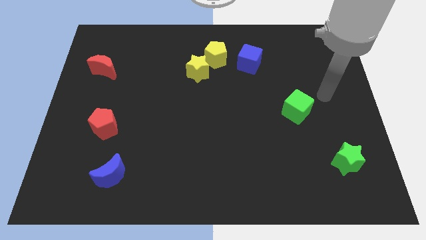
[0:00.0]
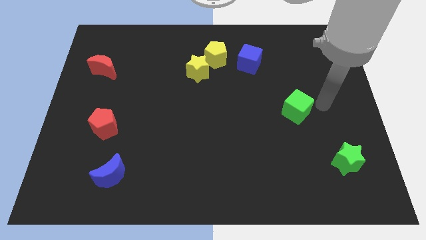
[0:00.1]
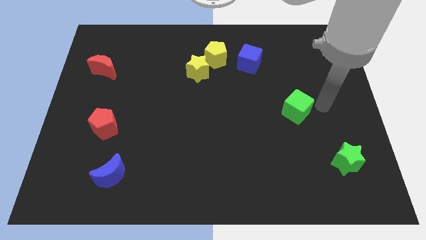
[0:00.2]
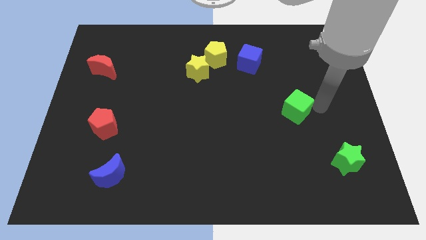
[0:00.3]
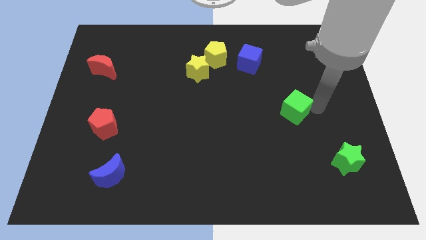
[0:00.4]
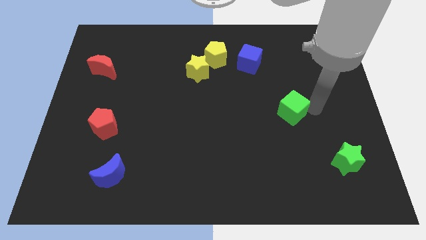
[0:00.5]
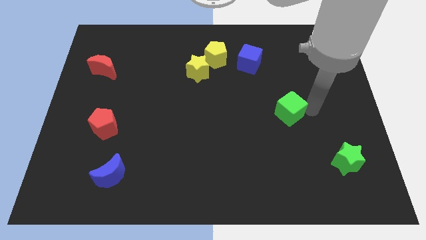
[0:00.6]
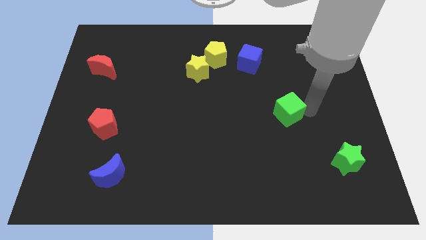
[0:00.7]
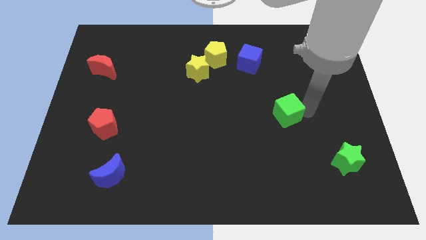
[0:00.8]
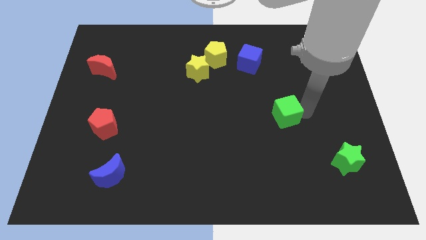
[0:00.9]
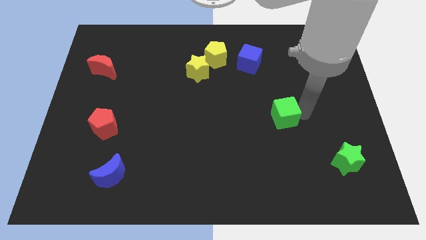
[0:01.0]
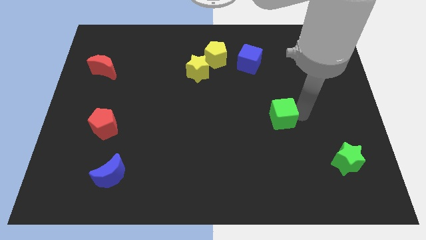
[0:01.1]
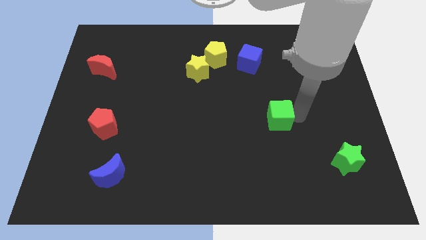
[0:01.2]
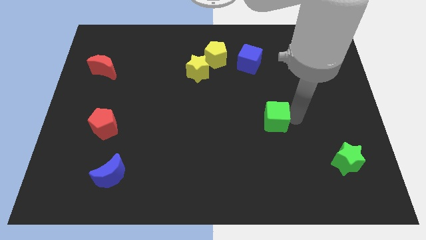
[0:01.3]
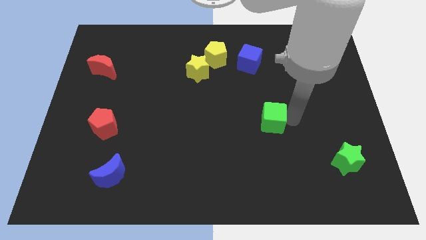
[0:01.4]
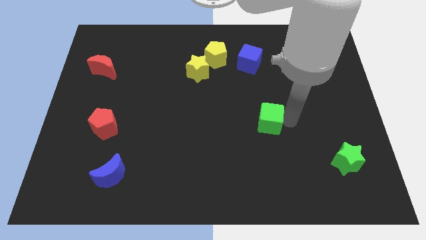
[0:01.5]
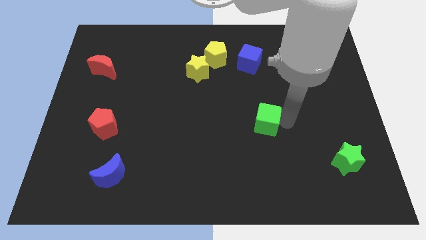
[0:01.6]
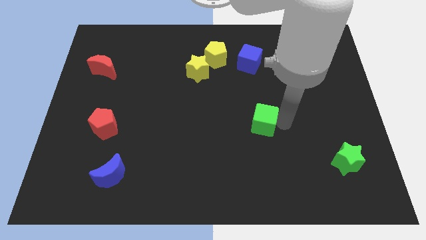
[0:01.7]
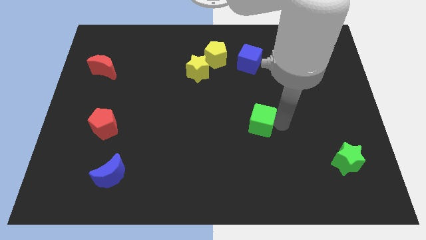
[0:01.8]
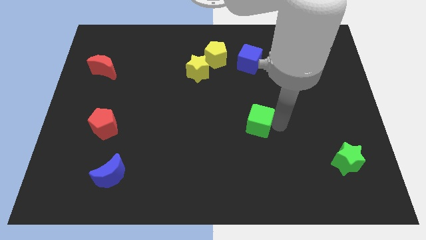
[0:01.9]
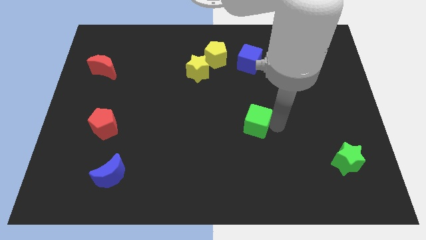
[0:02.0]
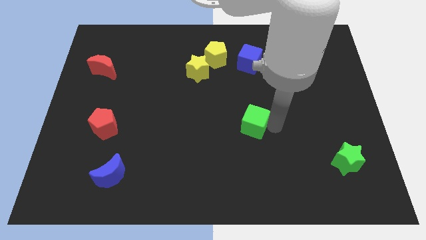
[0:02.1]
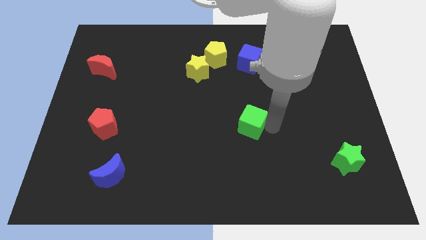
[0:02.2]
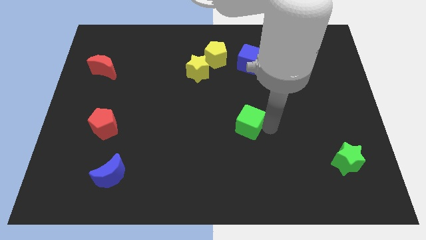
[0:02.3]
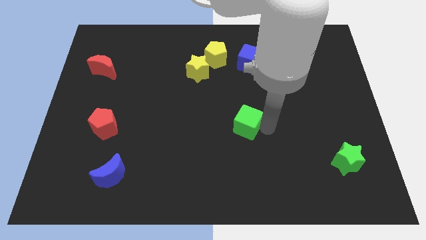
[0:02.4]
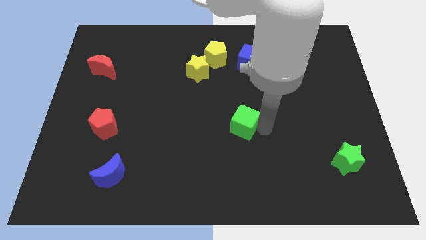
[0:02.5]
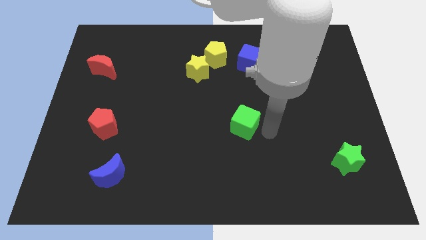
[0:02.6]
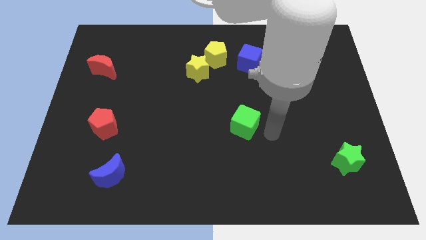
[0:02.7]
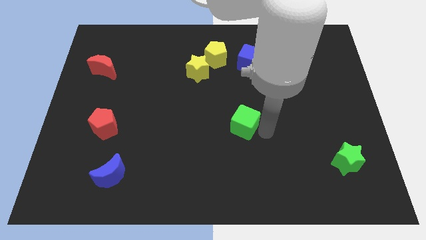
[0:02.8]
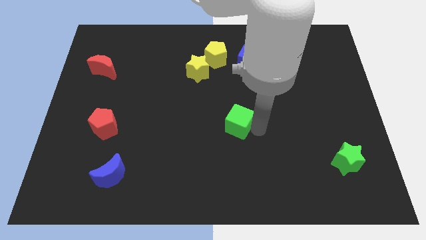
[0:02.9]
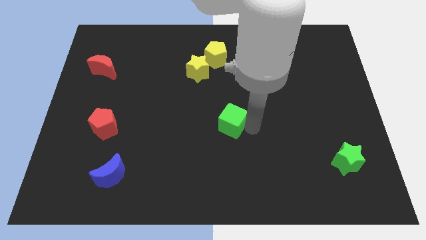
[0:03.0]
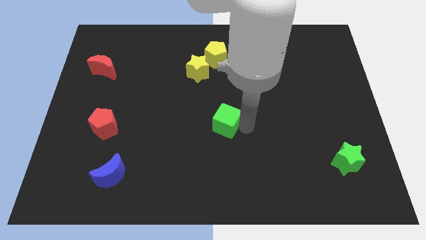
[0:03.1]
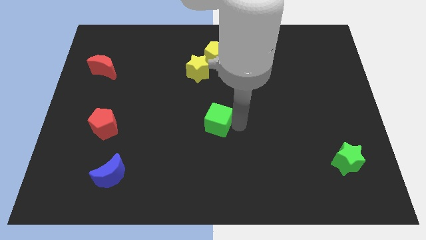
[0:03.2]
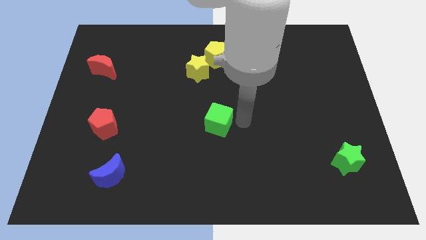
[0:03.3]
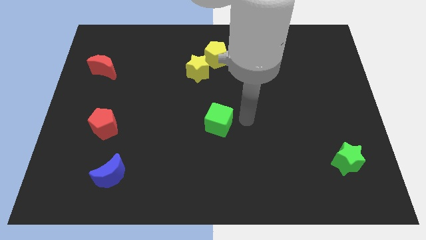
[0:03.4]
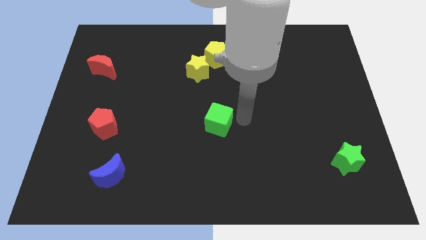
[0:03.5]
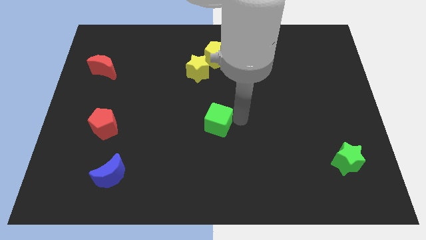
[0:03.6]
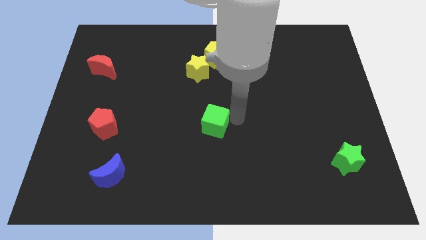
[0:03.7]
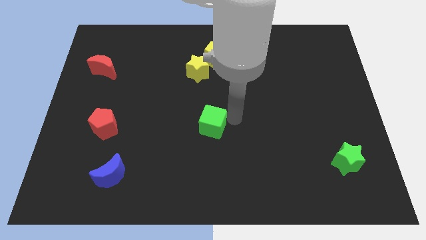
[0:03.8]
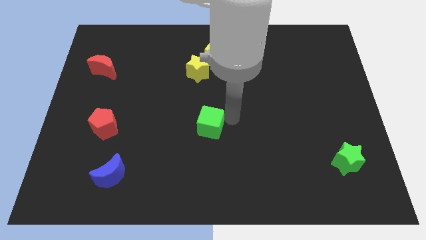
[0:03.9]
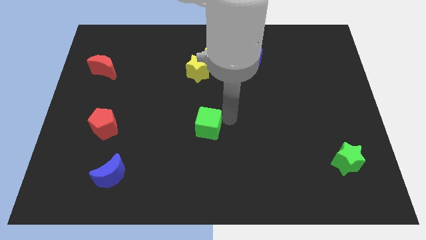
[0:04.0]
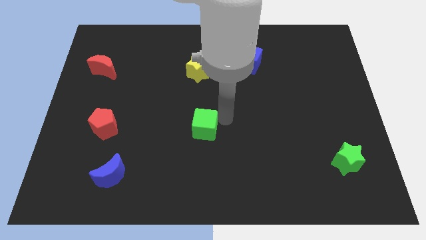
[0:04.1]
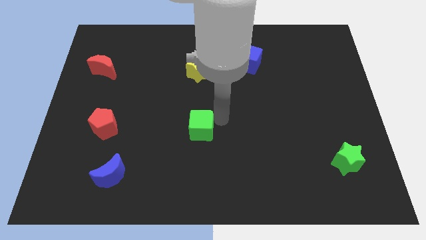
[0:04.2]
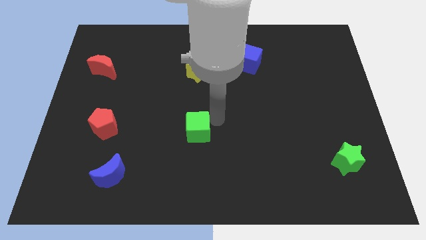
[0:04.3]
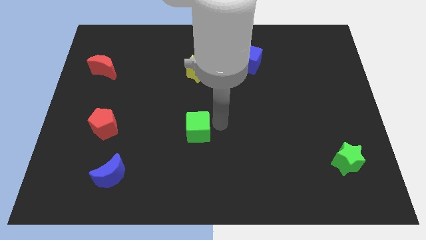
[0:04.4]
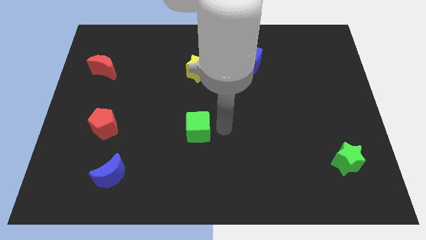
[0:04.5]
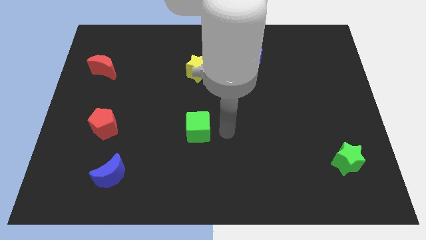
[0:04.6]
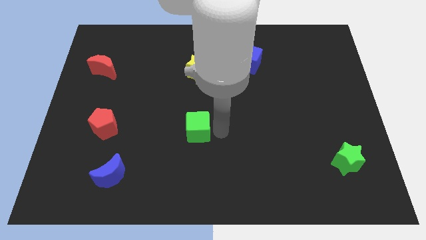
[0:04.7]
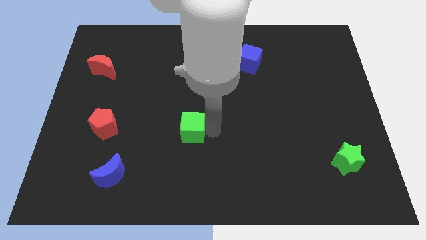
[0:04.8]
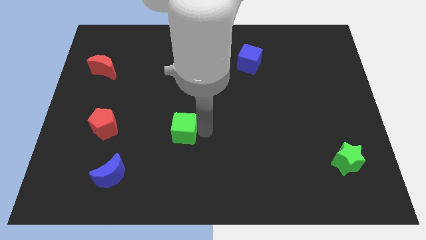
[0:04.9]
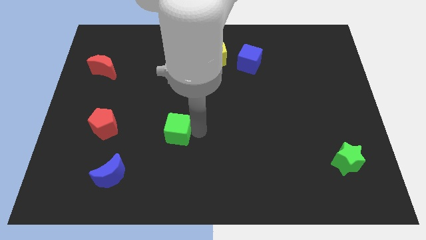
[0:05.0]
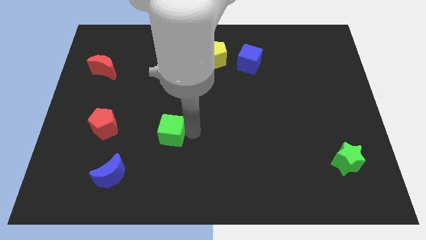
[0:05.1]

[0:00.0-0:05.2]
move the green cube to the right side of the red pentagon

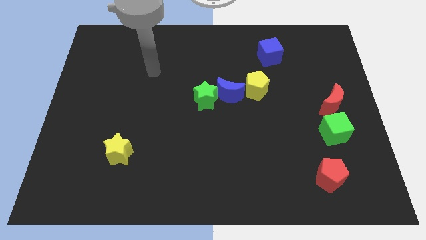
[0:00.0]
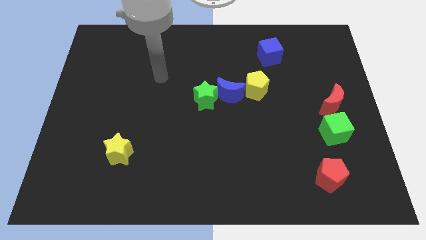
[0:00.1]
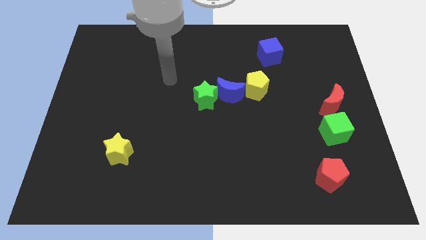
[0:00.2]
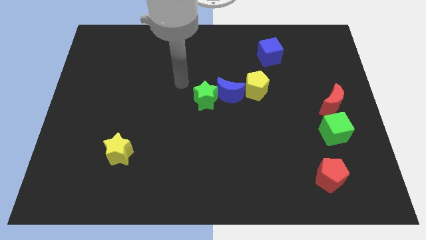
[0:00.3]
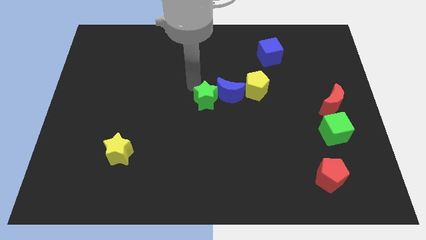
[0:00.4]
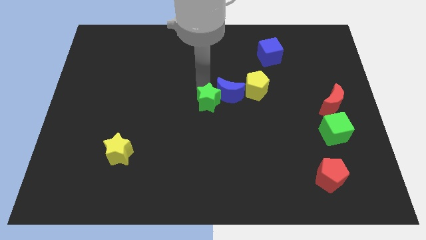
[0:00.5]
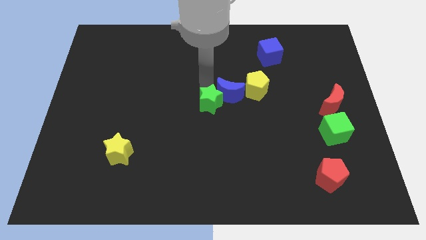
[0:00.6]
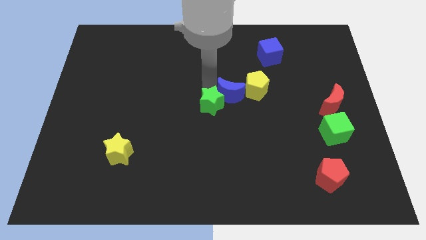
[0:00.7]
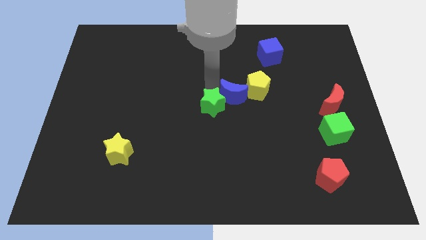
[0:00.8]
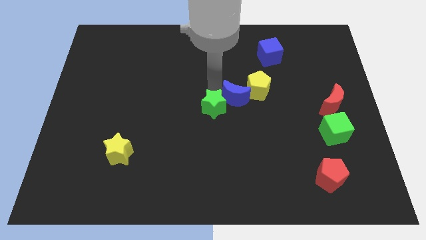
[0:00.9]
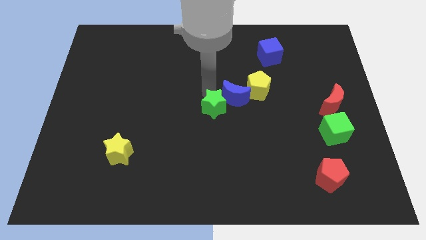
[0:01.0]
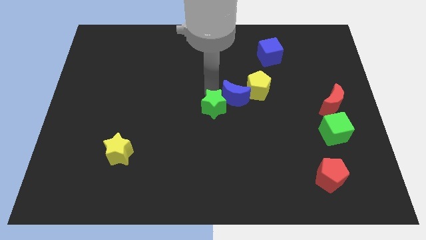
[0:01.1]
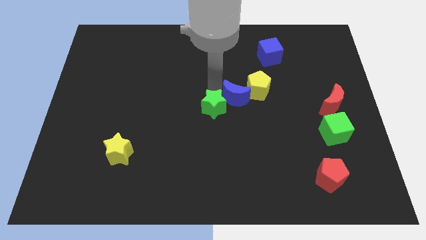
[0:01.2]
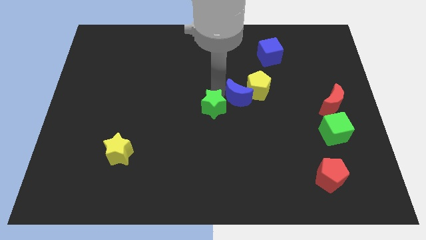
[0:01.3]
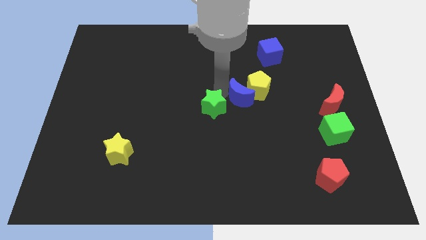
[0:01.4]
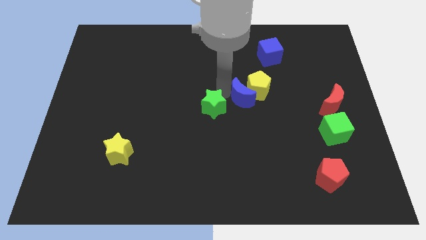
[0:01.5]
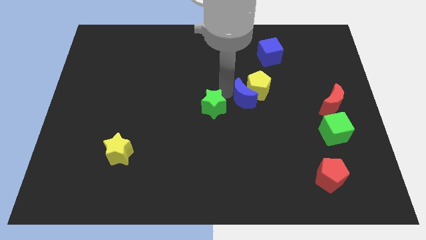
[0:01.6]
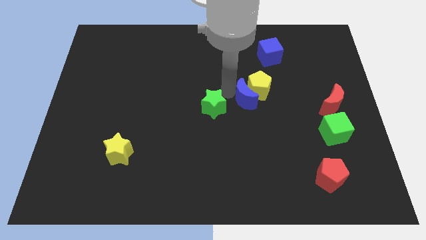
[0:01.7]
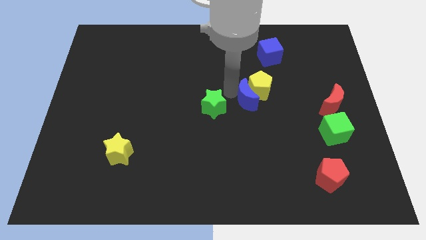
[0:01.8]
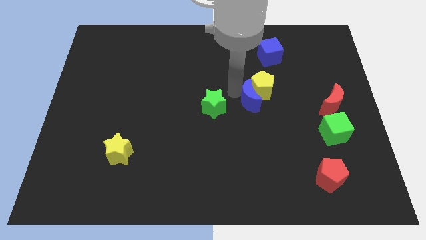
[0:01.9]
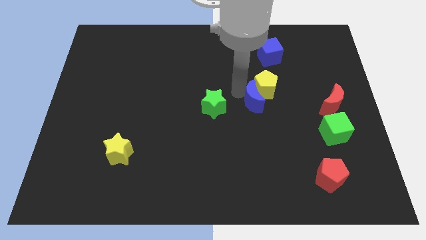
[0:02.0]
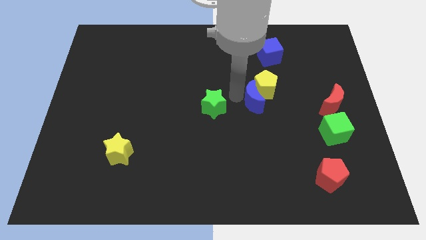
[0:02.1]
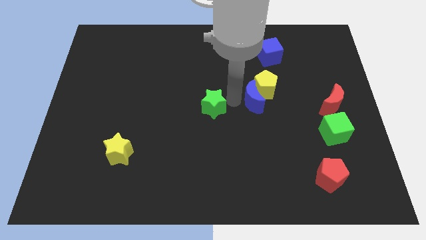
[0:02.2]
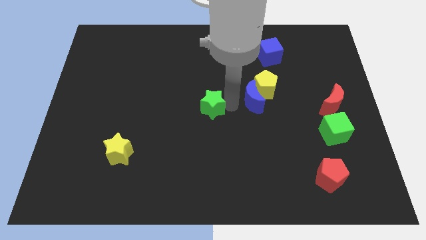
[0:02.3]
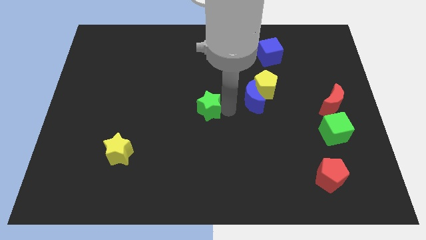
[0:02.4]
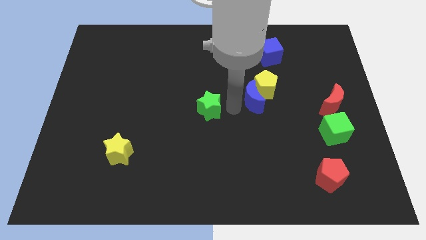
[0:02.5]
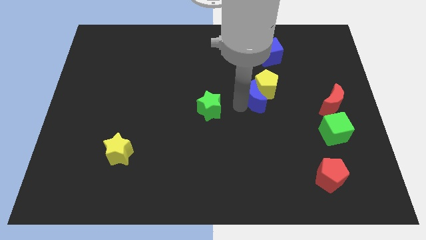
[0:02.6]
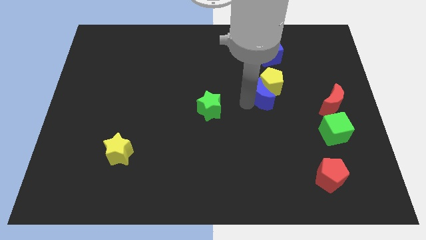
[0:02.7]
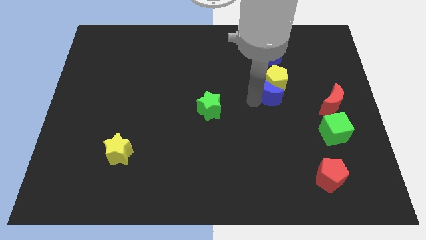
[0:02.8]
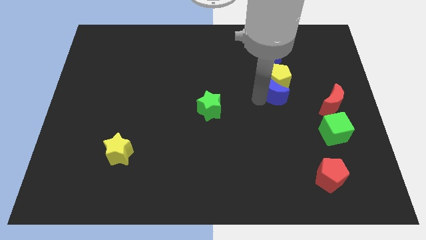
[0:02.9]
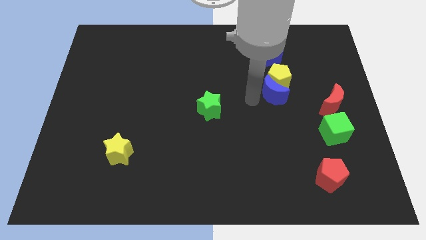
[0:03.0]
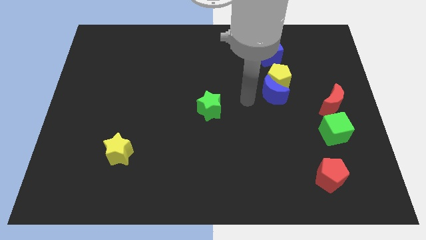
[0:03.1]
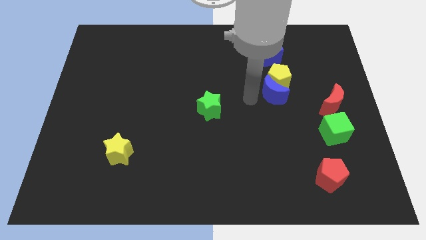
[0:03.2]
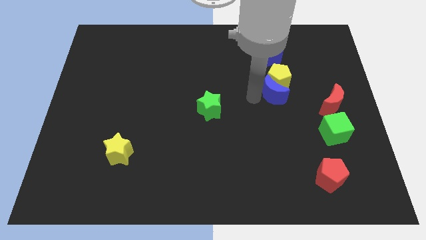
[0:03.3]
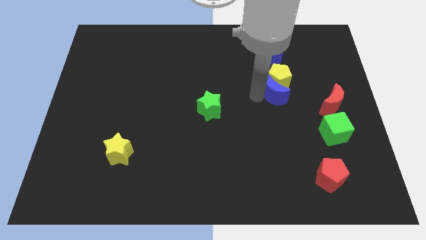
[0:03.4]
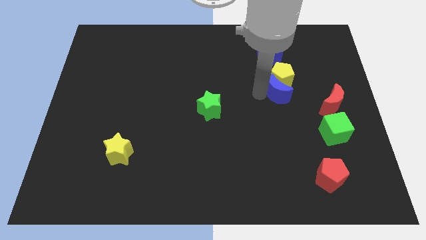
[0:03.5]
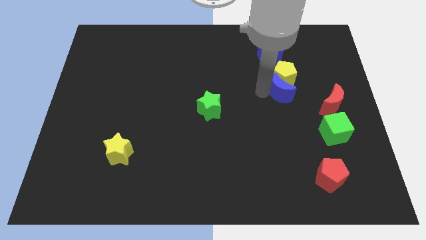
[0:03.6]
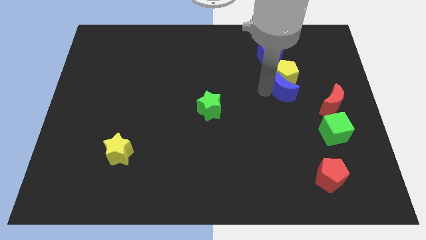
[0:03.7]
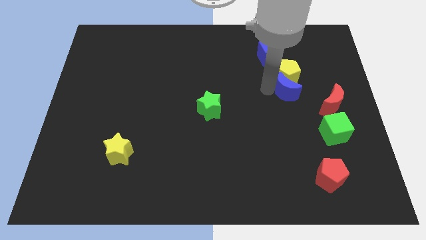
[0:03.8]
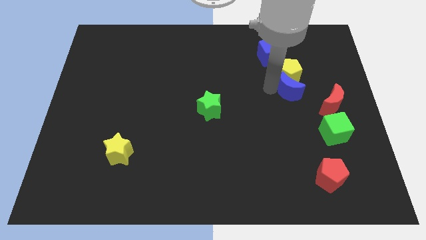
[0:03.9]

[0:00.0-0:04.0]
push the blue moon to the top left side of the red moon
